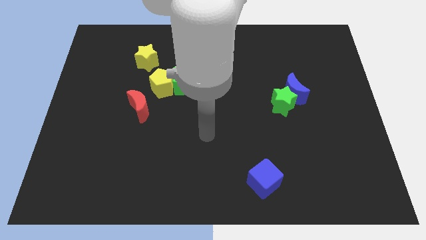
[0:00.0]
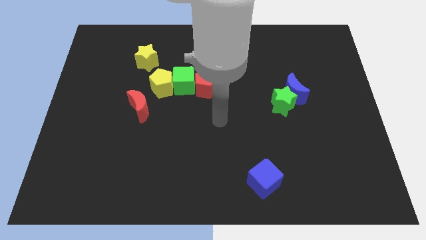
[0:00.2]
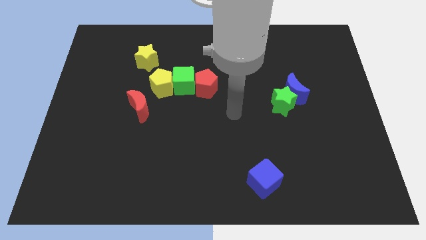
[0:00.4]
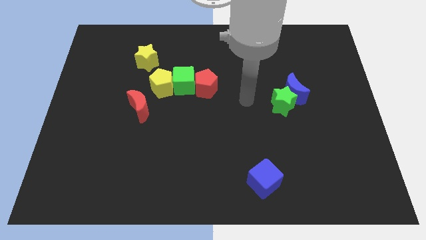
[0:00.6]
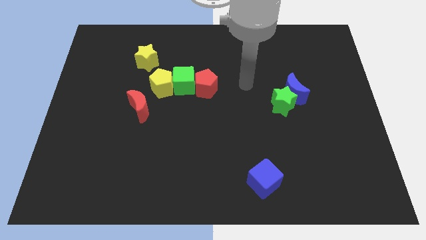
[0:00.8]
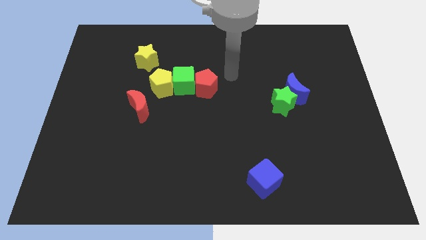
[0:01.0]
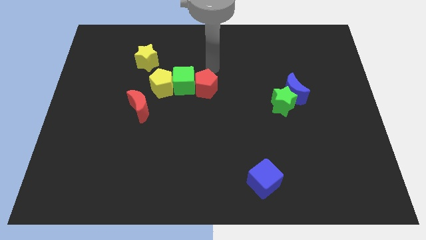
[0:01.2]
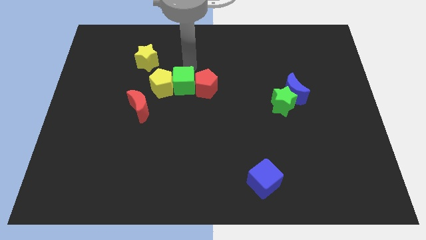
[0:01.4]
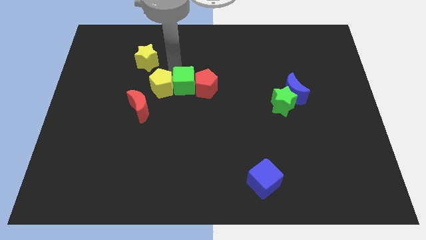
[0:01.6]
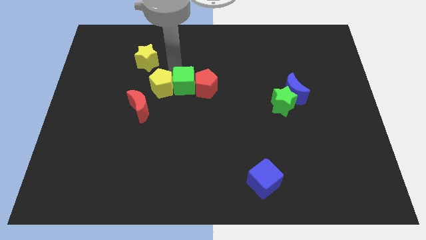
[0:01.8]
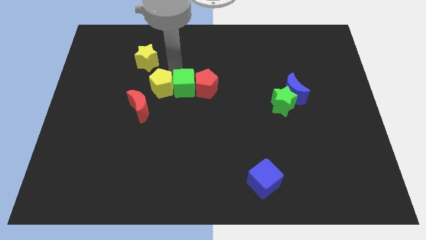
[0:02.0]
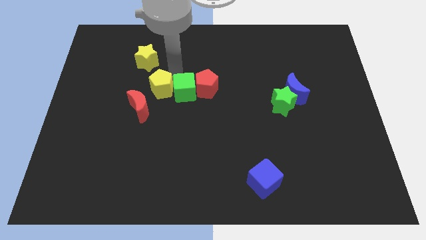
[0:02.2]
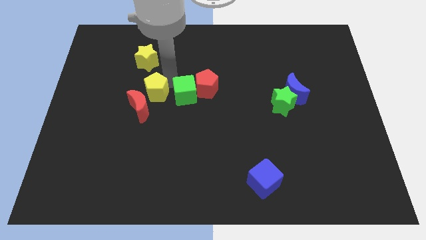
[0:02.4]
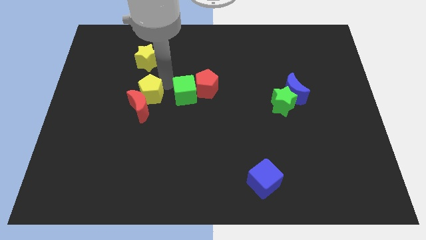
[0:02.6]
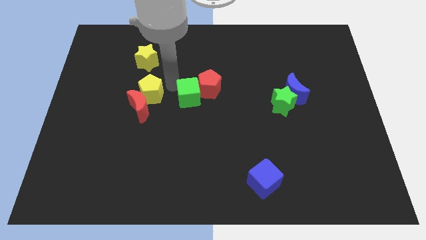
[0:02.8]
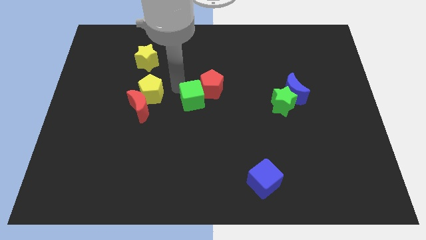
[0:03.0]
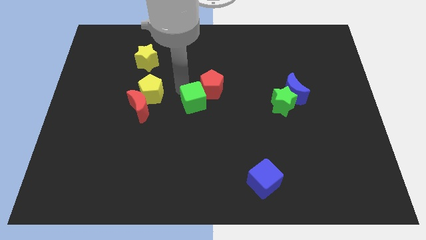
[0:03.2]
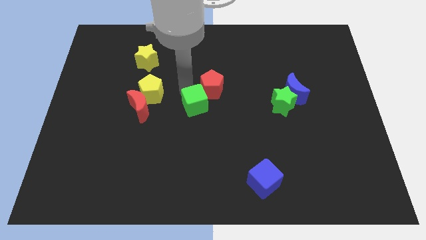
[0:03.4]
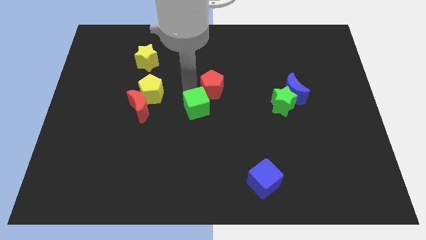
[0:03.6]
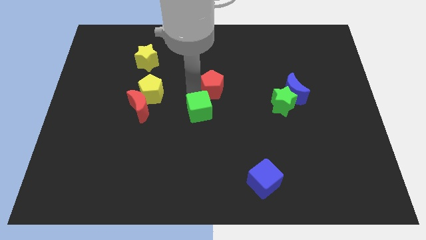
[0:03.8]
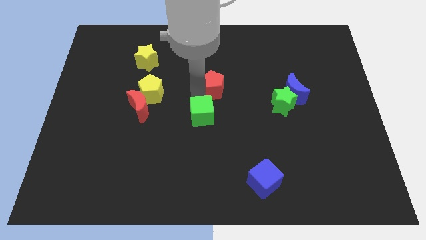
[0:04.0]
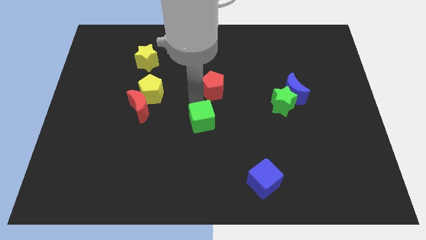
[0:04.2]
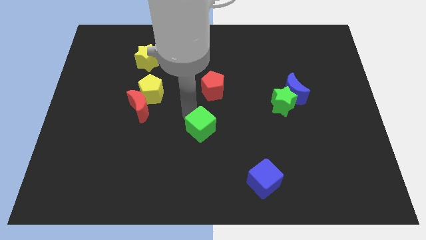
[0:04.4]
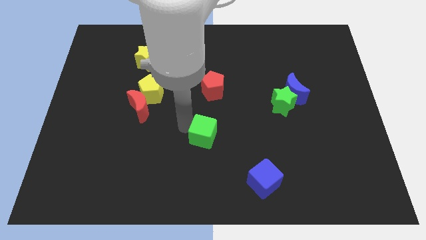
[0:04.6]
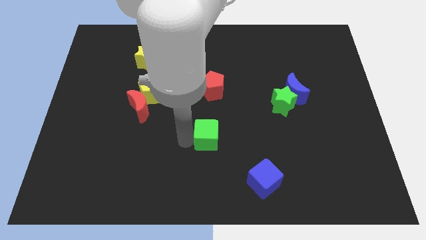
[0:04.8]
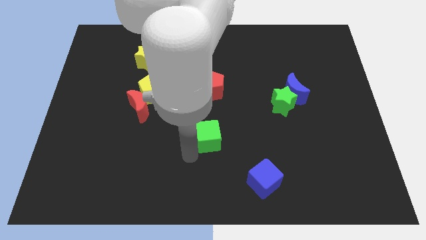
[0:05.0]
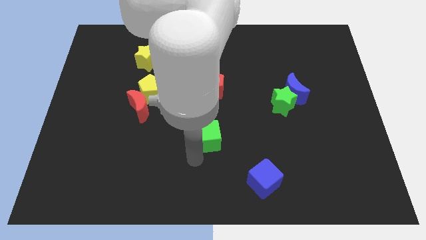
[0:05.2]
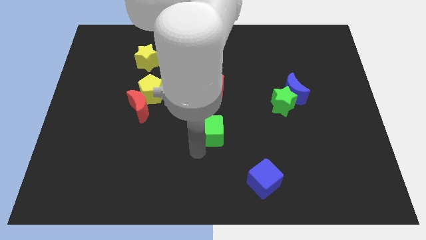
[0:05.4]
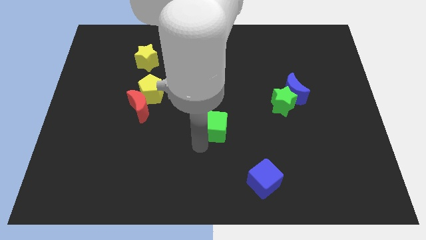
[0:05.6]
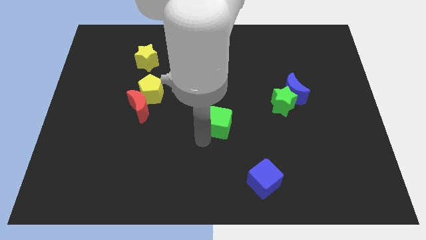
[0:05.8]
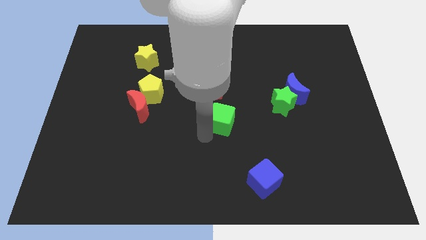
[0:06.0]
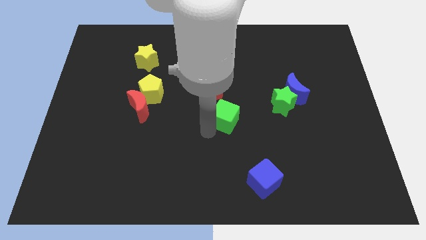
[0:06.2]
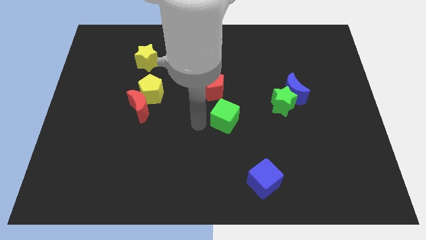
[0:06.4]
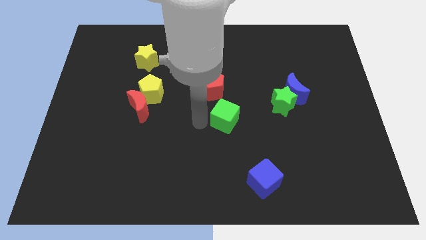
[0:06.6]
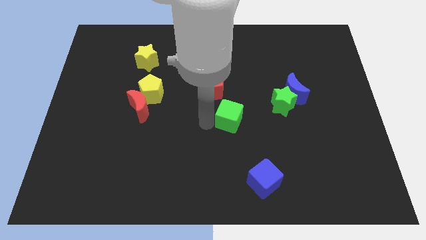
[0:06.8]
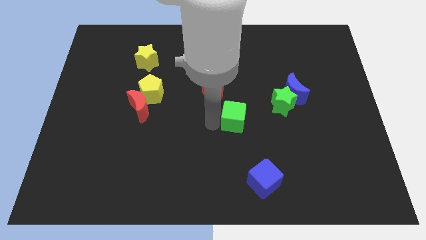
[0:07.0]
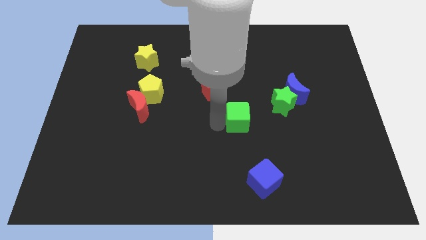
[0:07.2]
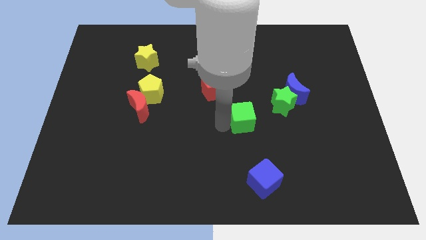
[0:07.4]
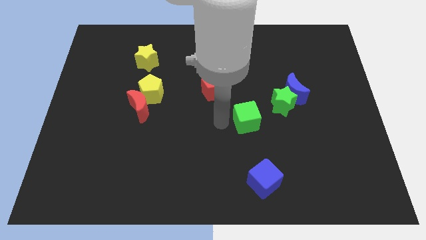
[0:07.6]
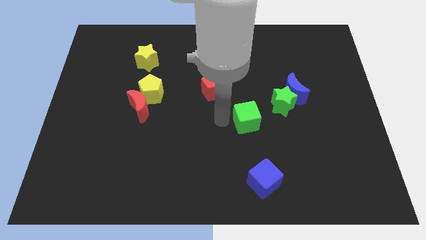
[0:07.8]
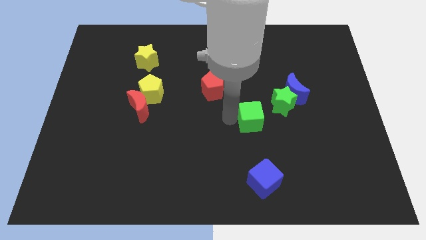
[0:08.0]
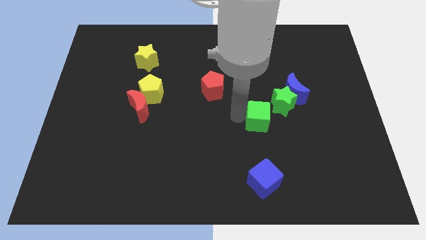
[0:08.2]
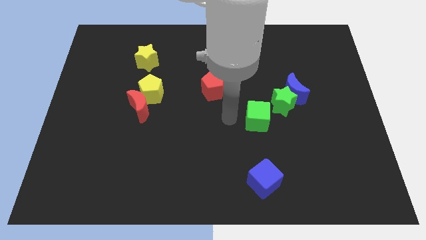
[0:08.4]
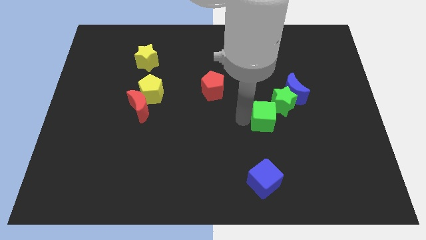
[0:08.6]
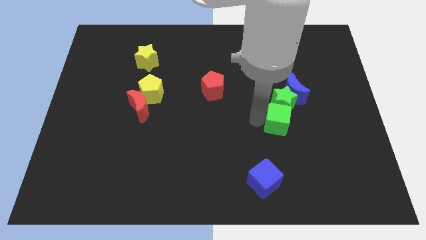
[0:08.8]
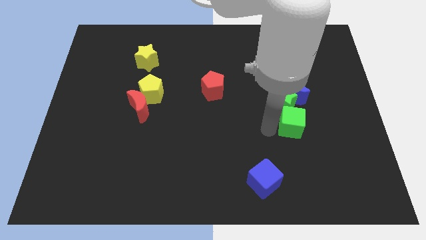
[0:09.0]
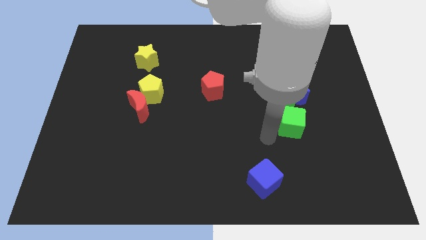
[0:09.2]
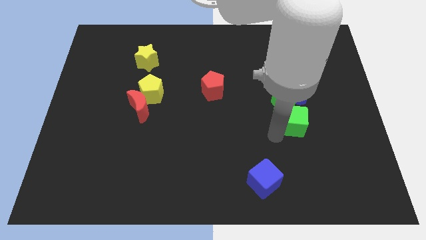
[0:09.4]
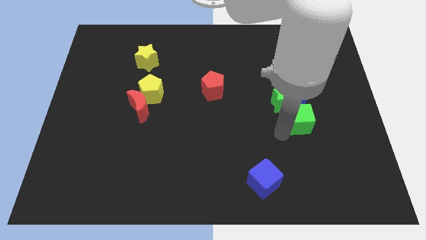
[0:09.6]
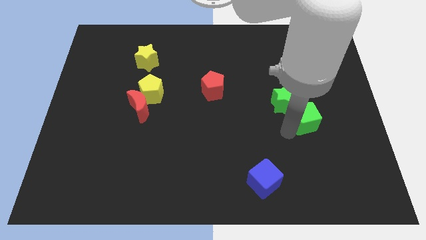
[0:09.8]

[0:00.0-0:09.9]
slide the green cube to the bottom right of the blue moon

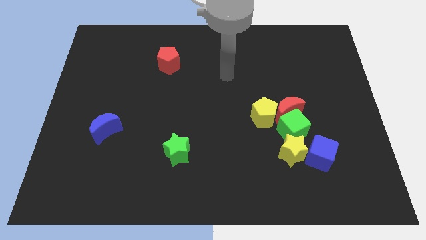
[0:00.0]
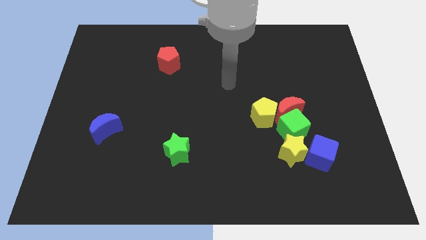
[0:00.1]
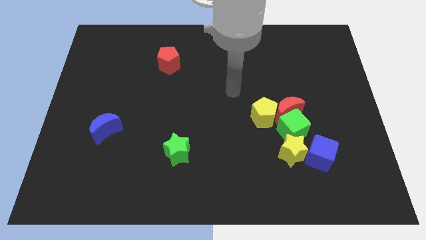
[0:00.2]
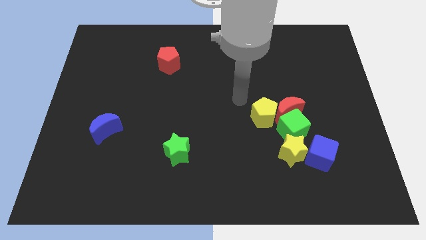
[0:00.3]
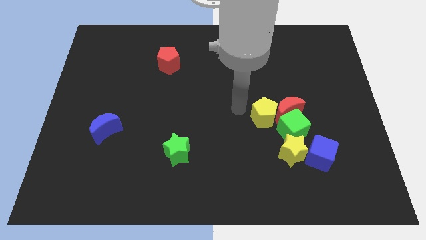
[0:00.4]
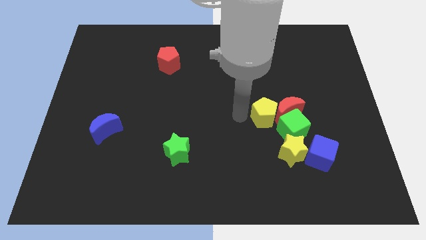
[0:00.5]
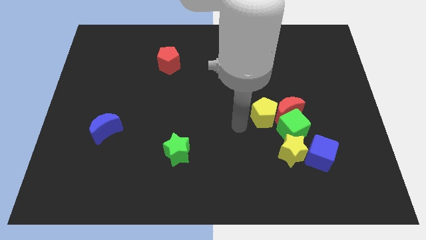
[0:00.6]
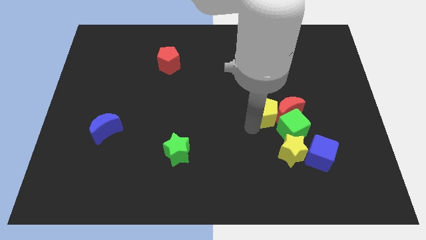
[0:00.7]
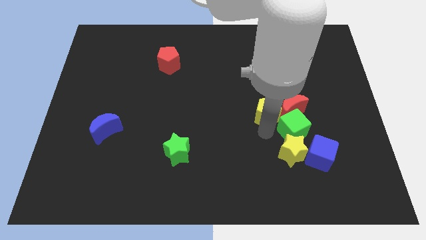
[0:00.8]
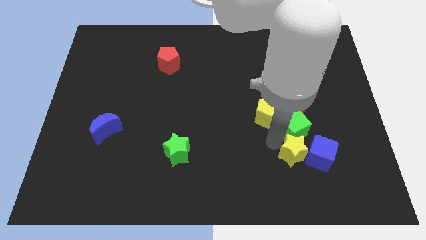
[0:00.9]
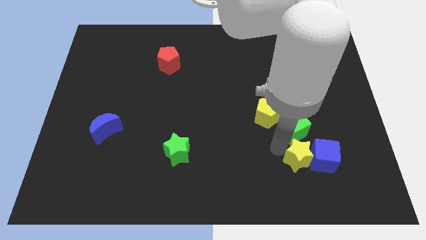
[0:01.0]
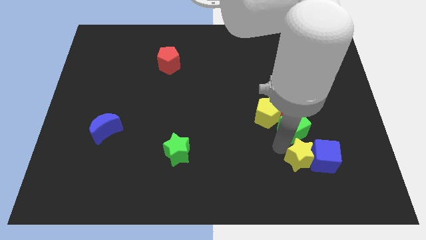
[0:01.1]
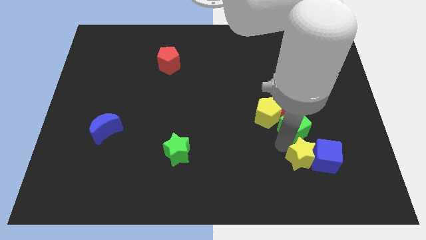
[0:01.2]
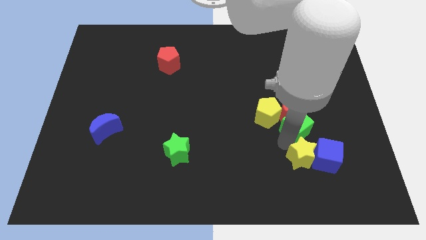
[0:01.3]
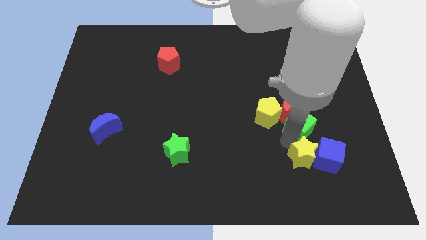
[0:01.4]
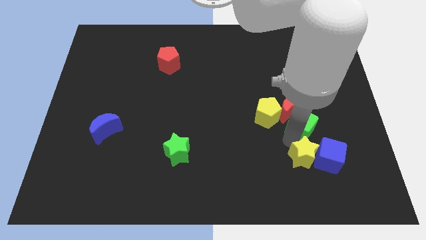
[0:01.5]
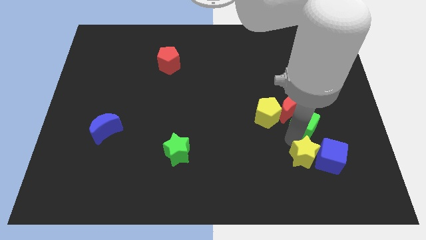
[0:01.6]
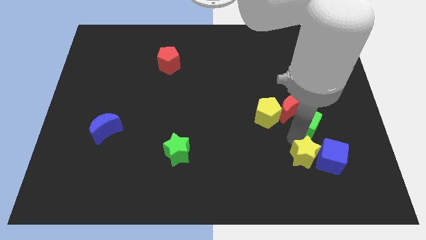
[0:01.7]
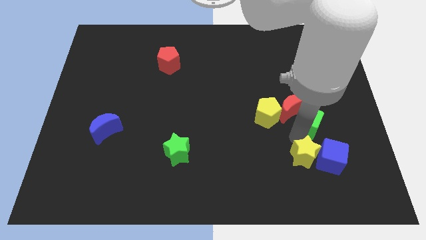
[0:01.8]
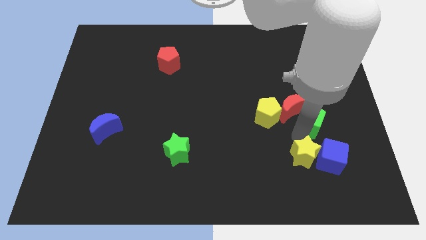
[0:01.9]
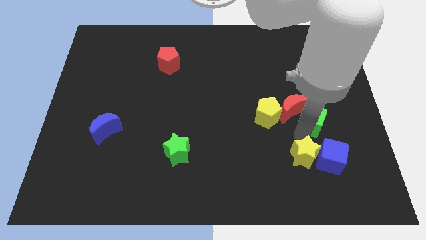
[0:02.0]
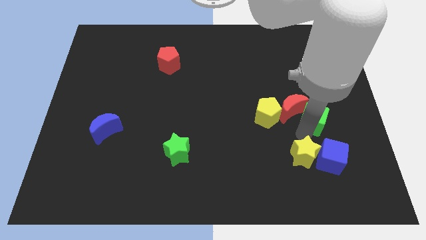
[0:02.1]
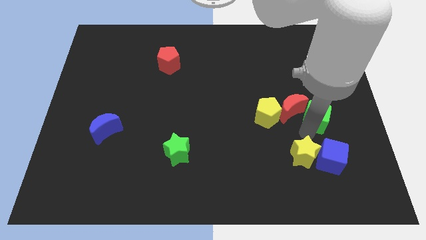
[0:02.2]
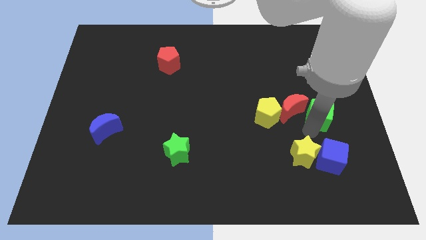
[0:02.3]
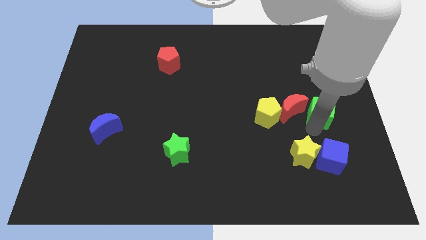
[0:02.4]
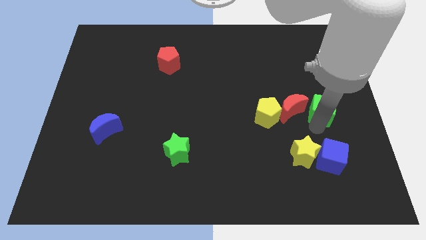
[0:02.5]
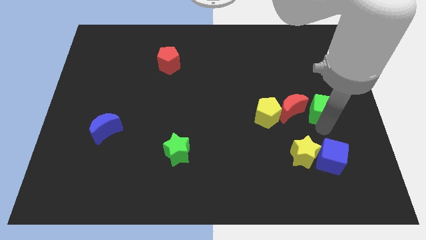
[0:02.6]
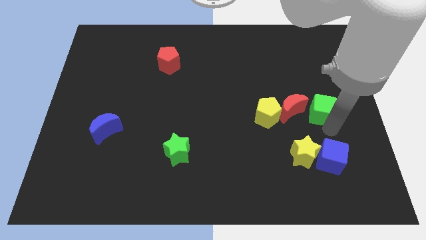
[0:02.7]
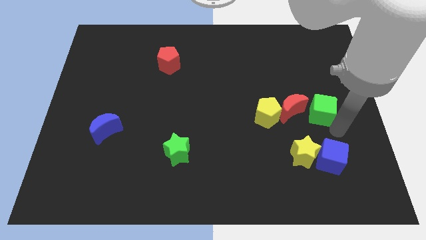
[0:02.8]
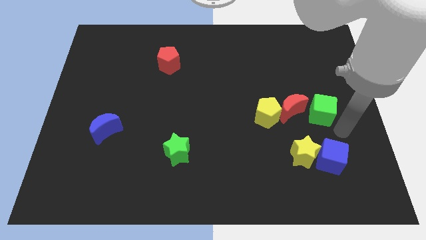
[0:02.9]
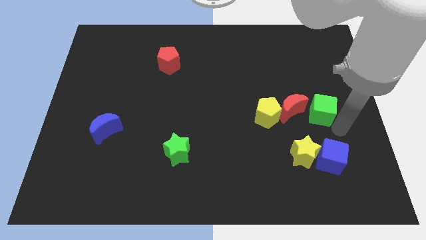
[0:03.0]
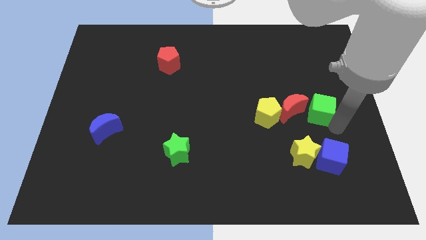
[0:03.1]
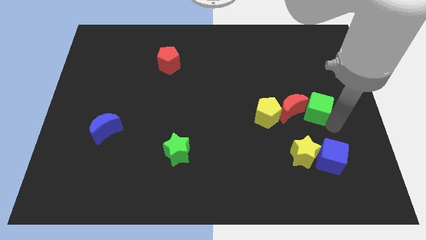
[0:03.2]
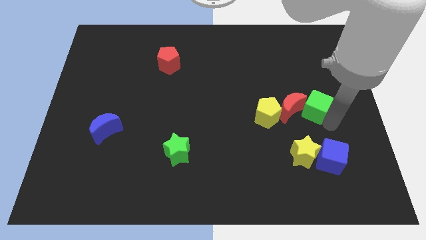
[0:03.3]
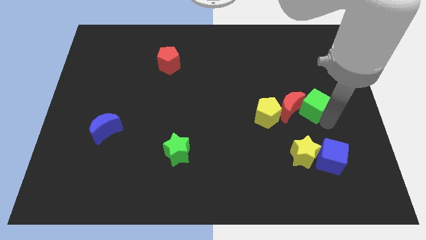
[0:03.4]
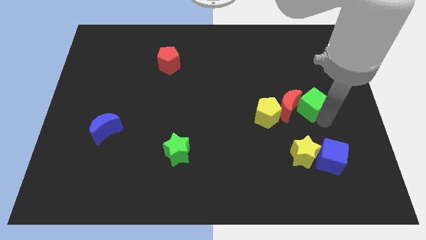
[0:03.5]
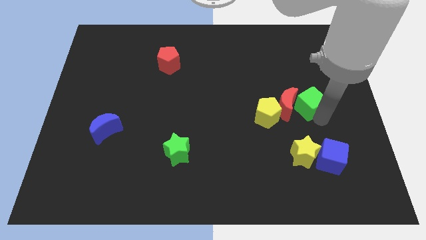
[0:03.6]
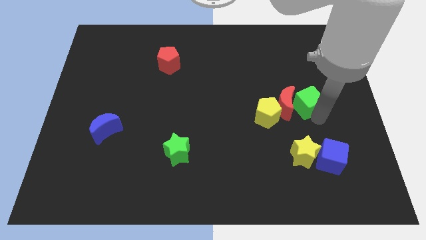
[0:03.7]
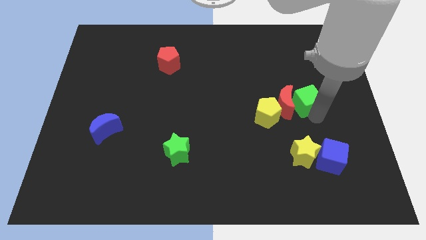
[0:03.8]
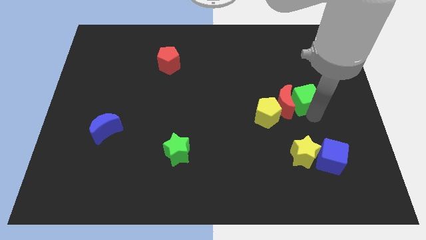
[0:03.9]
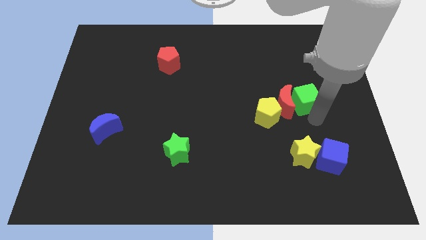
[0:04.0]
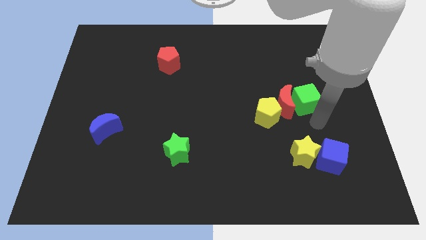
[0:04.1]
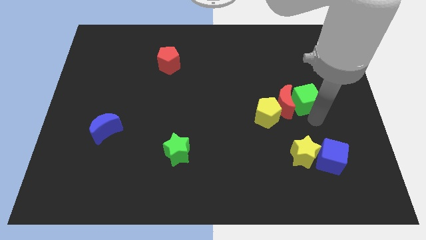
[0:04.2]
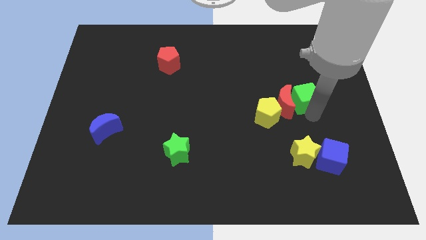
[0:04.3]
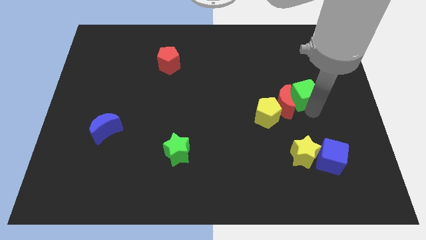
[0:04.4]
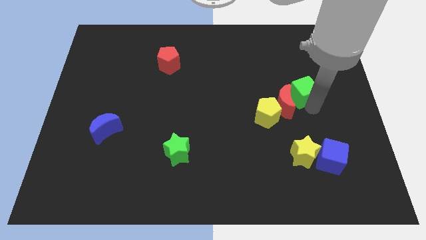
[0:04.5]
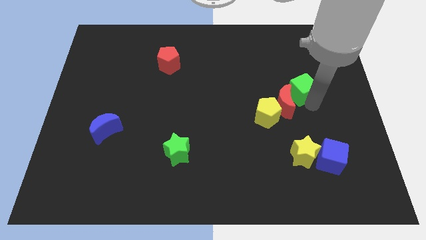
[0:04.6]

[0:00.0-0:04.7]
move the green cube to the top of the red moon
